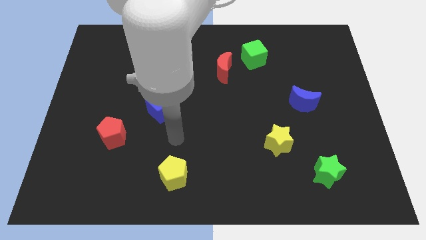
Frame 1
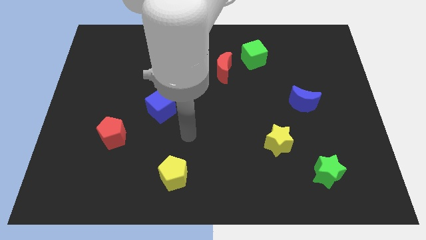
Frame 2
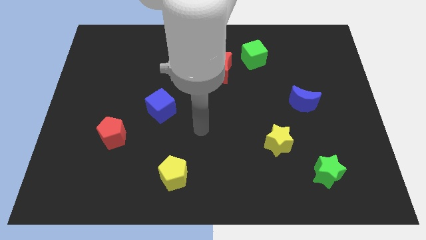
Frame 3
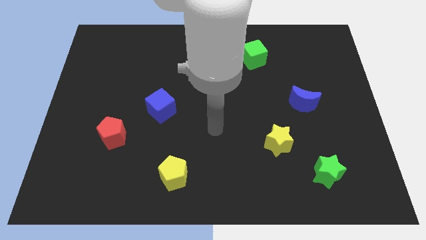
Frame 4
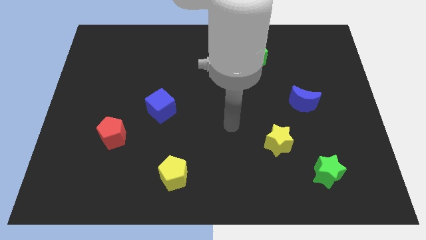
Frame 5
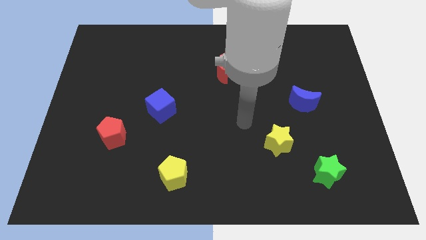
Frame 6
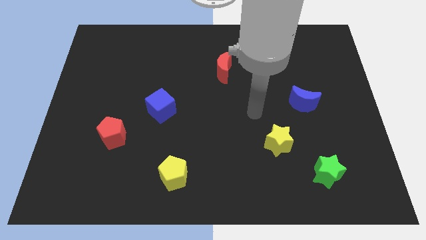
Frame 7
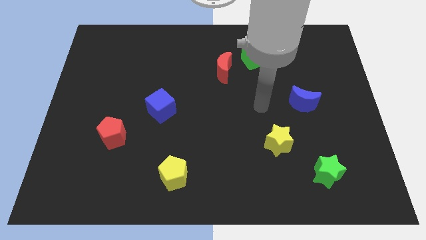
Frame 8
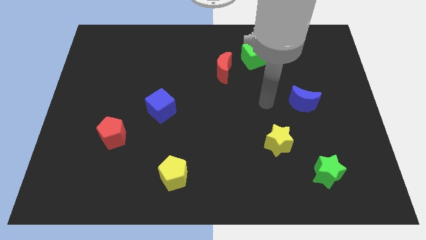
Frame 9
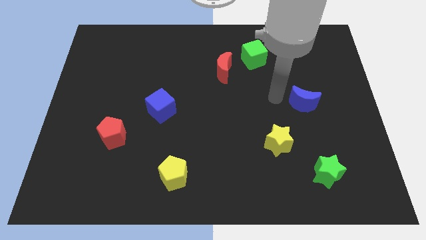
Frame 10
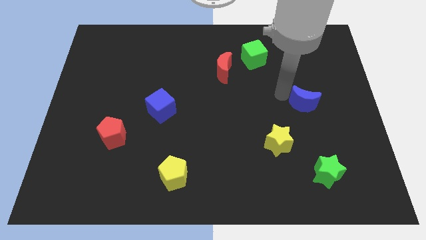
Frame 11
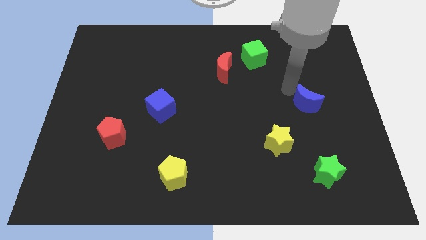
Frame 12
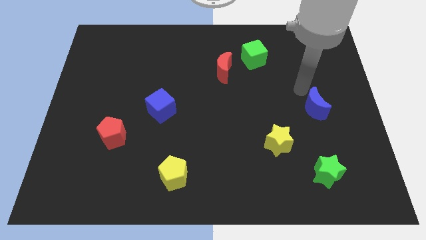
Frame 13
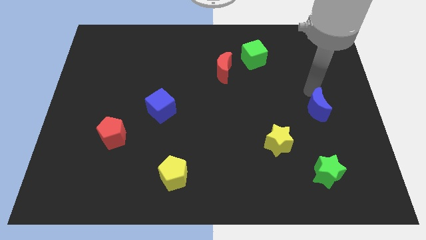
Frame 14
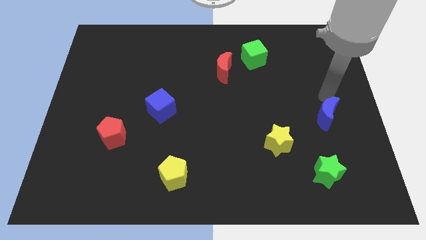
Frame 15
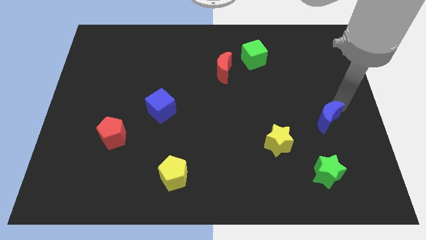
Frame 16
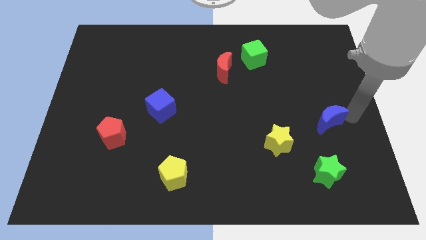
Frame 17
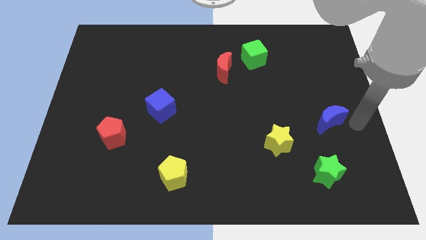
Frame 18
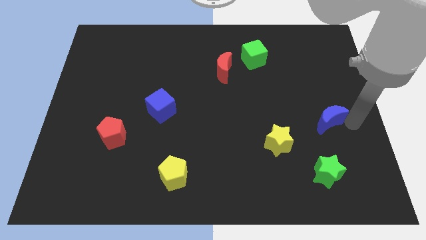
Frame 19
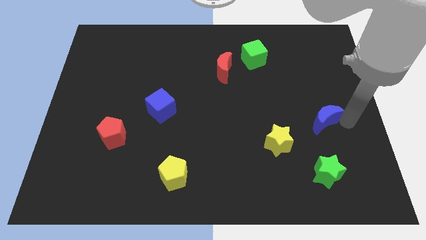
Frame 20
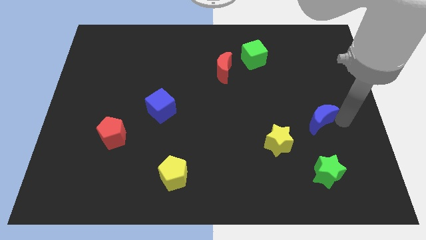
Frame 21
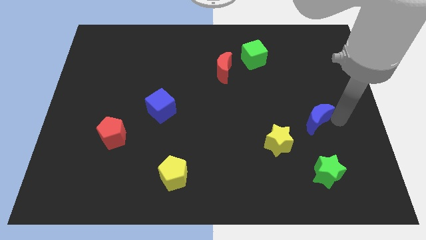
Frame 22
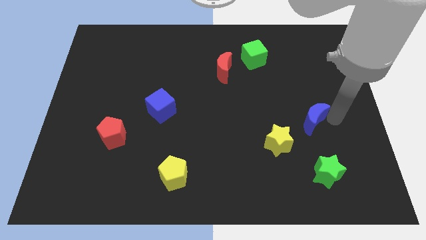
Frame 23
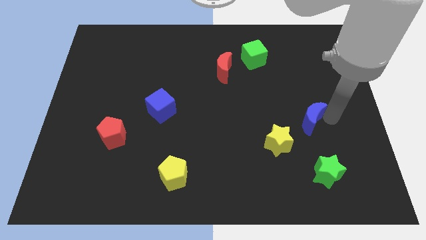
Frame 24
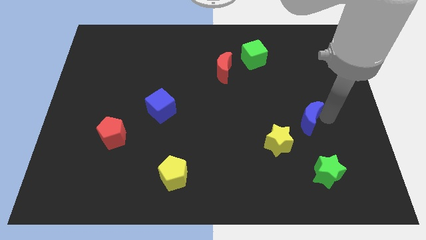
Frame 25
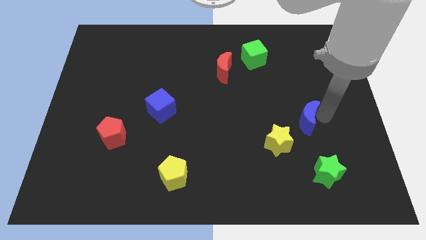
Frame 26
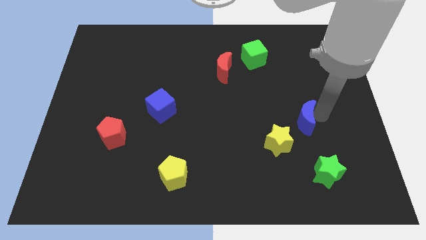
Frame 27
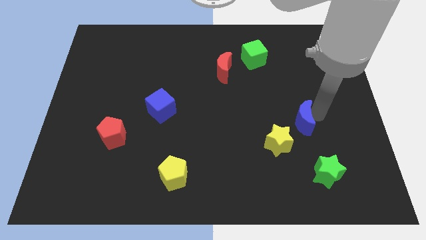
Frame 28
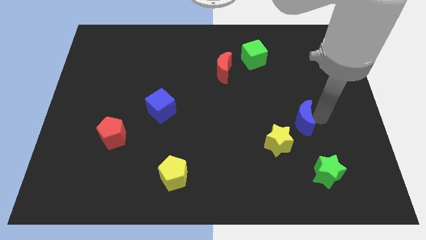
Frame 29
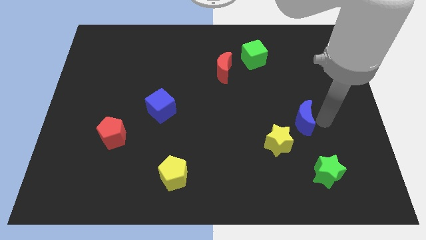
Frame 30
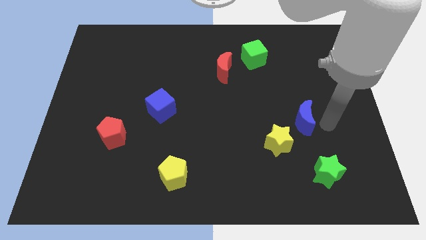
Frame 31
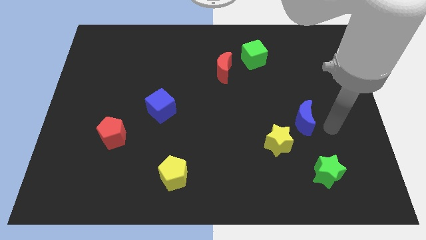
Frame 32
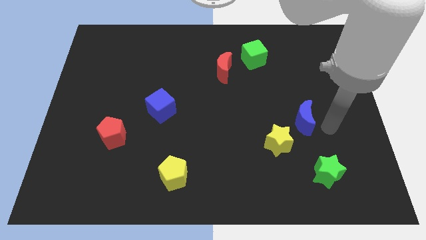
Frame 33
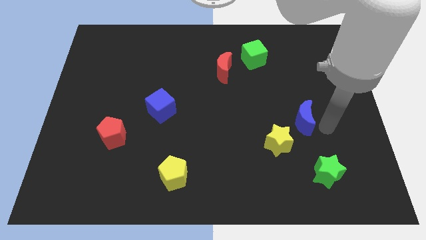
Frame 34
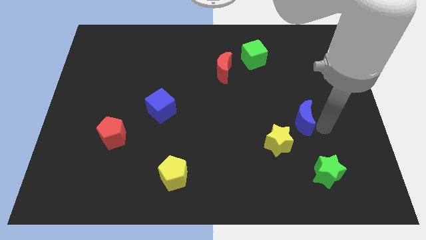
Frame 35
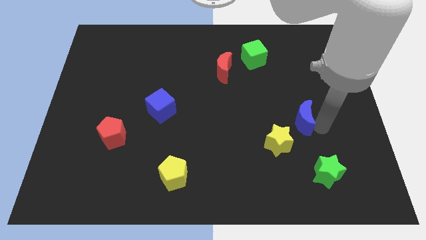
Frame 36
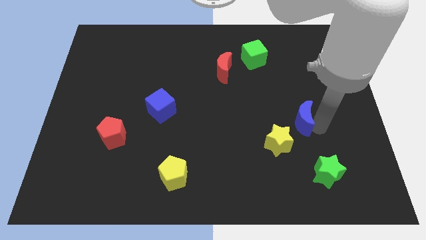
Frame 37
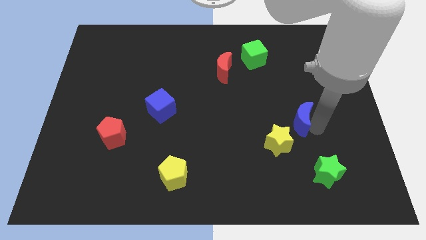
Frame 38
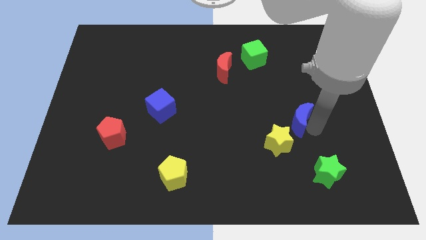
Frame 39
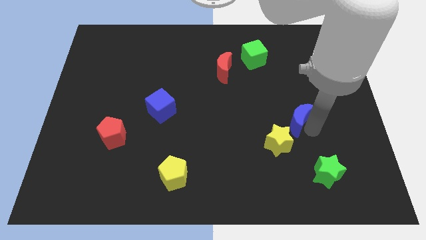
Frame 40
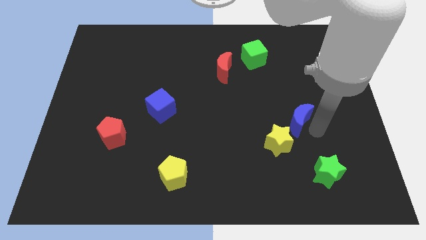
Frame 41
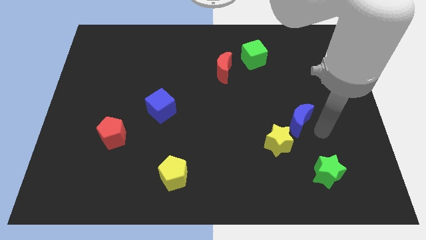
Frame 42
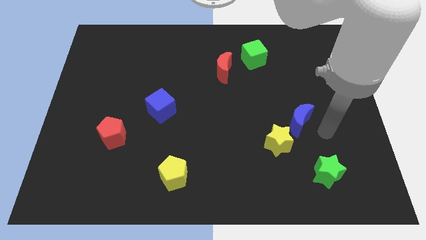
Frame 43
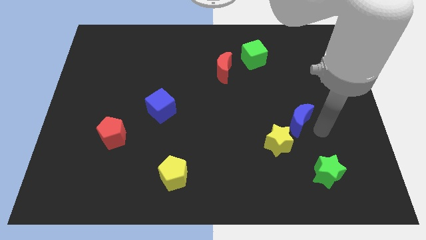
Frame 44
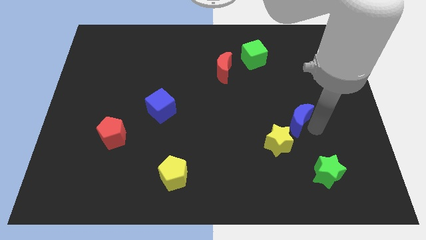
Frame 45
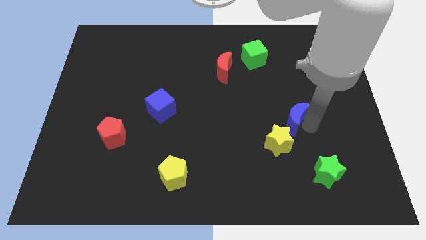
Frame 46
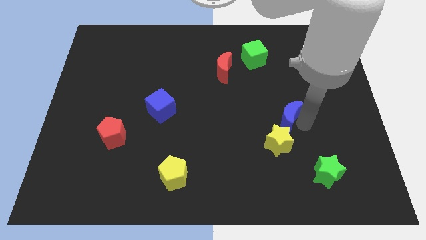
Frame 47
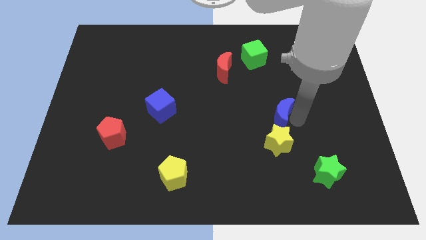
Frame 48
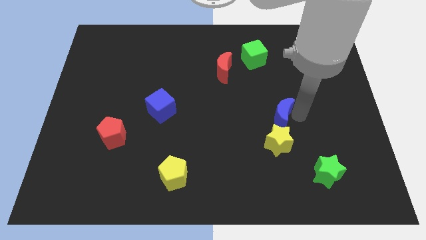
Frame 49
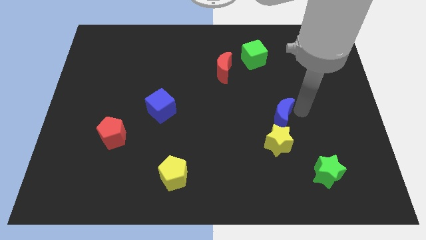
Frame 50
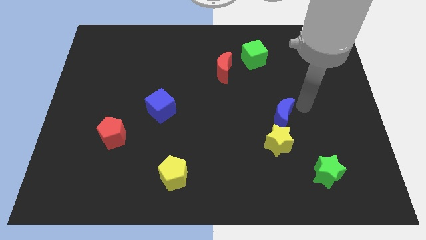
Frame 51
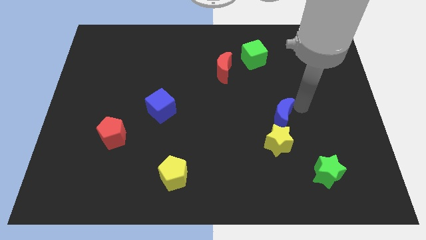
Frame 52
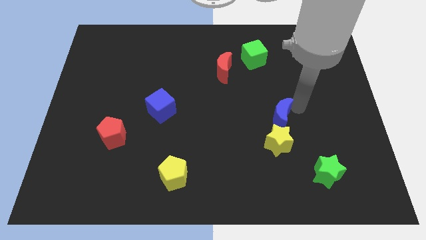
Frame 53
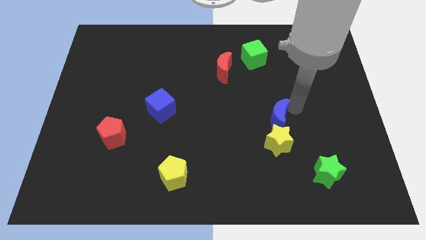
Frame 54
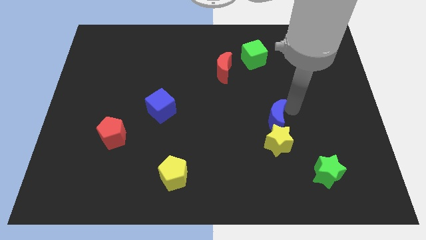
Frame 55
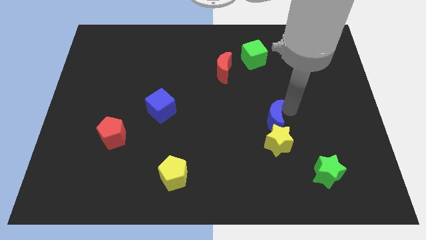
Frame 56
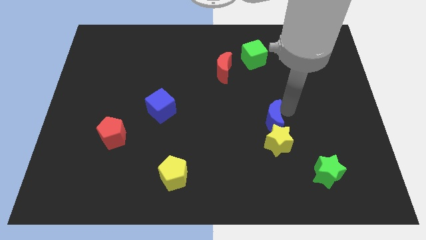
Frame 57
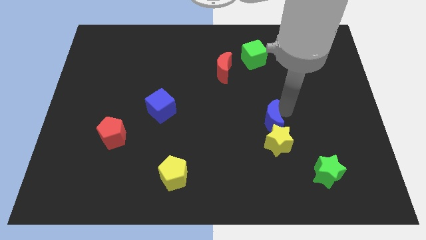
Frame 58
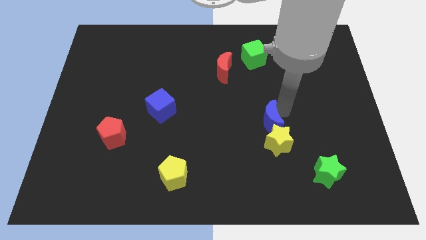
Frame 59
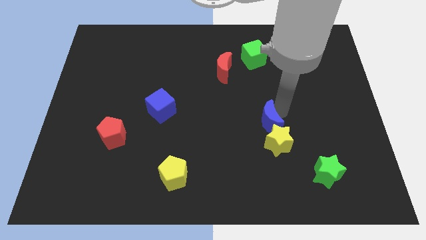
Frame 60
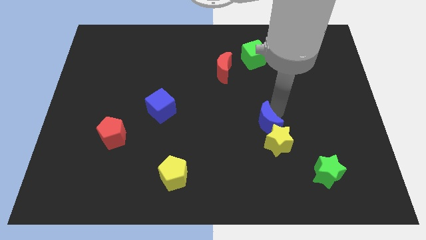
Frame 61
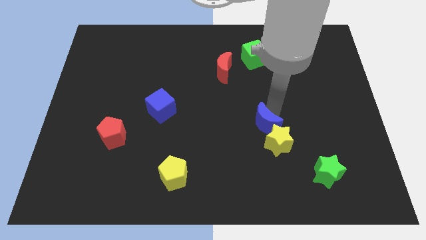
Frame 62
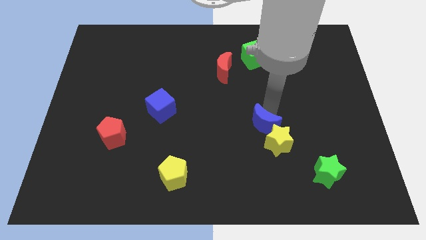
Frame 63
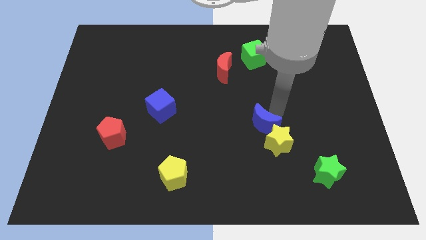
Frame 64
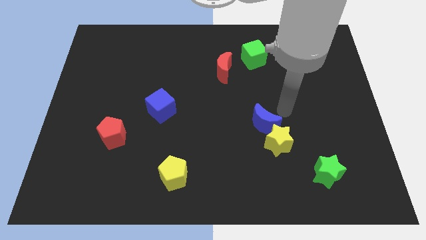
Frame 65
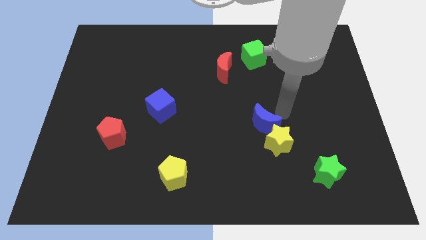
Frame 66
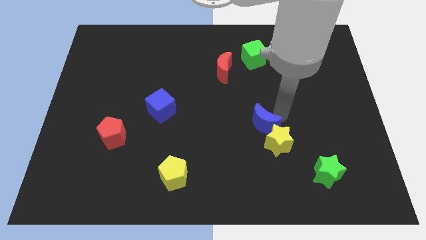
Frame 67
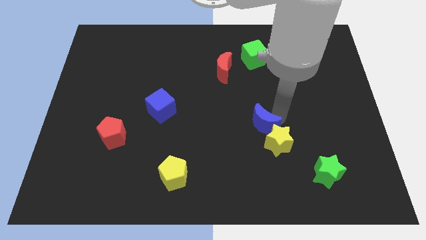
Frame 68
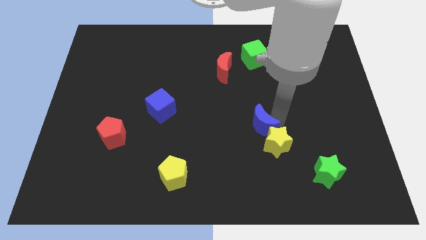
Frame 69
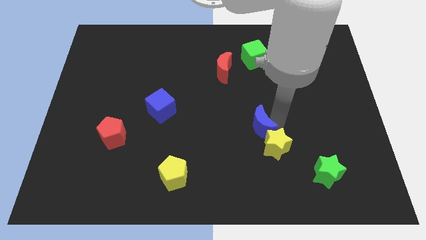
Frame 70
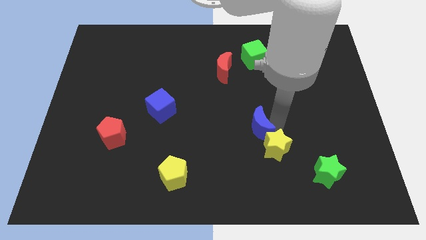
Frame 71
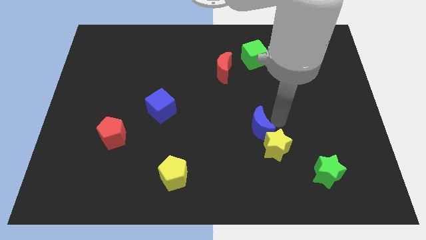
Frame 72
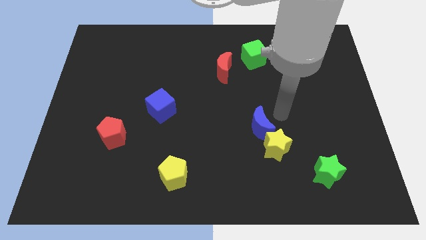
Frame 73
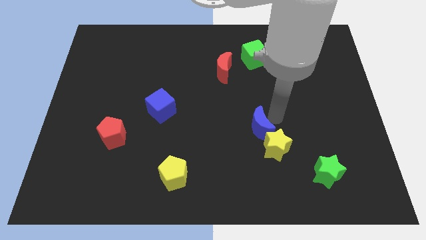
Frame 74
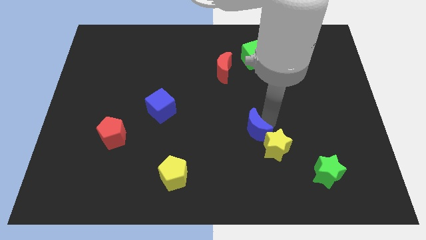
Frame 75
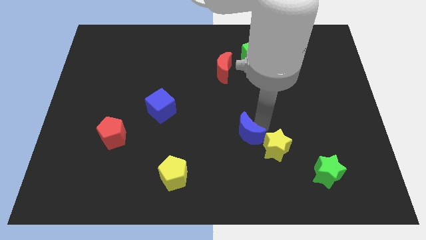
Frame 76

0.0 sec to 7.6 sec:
move the blue moon to the left side of the yellow star

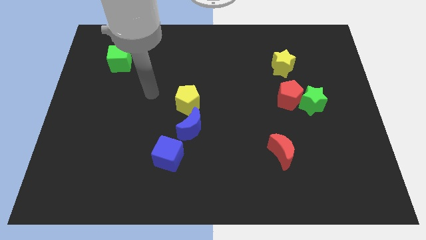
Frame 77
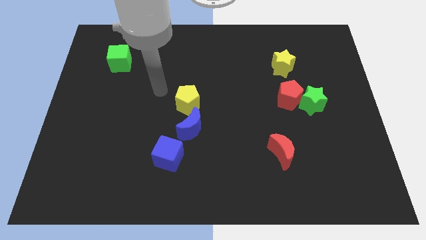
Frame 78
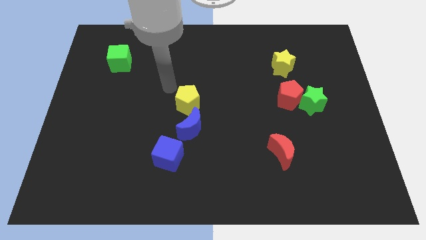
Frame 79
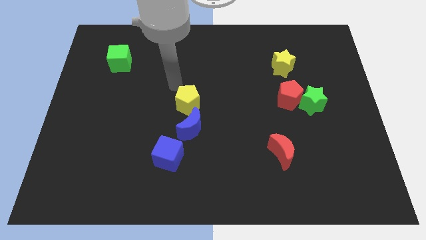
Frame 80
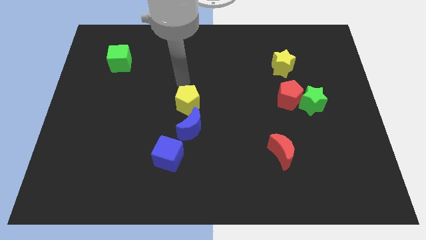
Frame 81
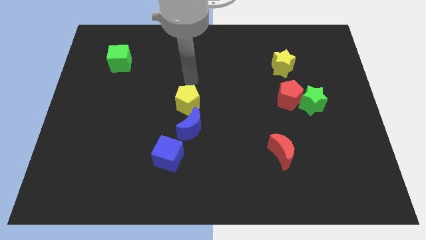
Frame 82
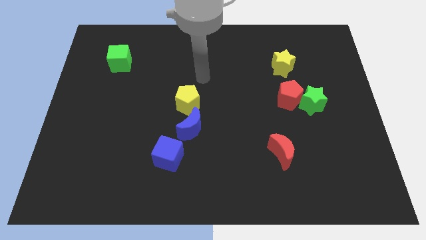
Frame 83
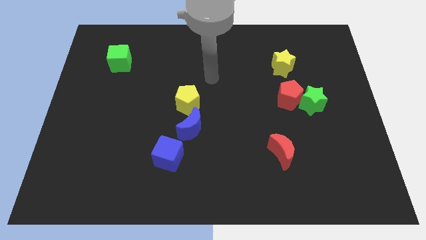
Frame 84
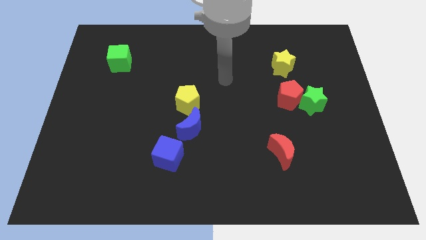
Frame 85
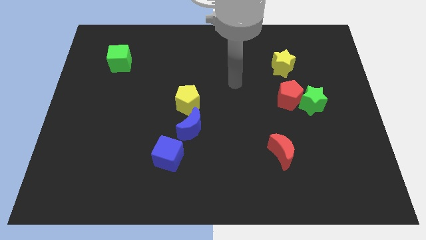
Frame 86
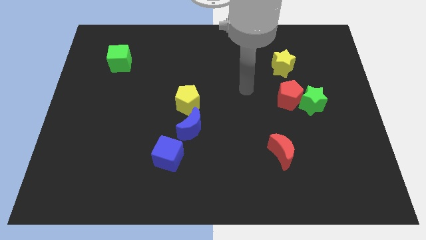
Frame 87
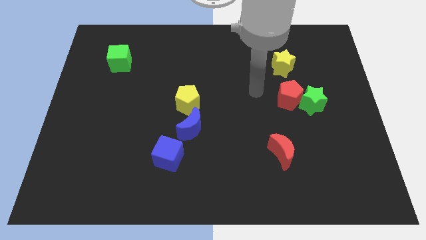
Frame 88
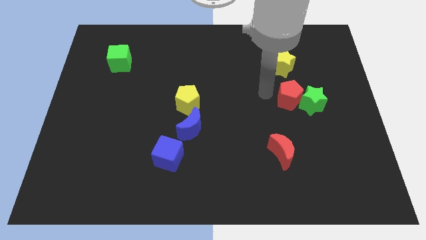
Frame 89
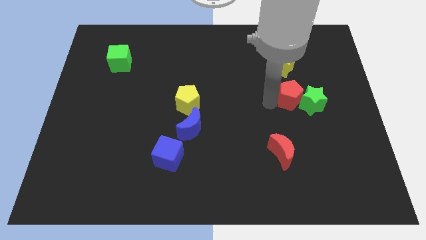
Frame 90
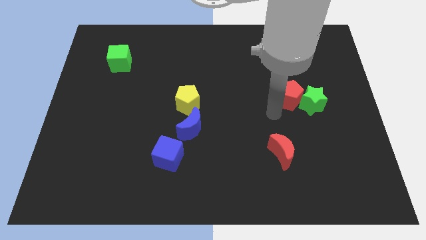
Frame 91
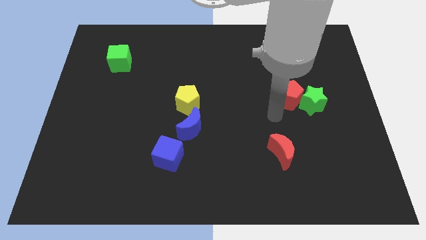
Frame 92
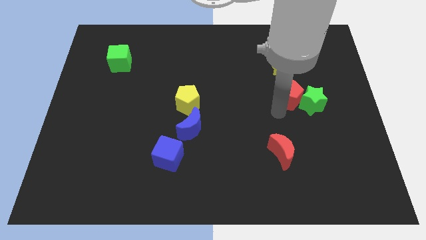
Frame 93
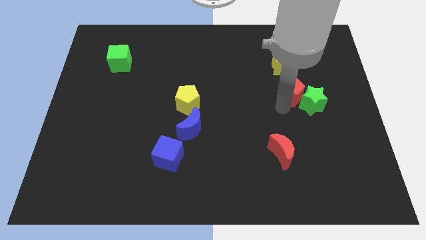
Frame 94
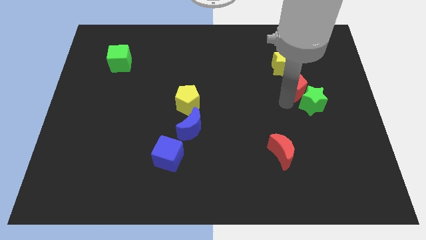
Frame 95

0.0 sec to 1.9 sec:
put the red pentagon to the bottom right of the yellow star
